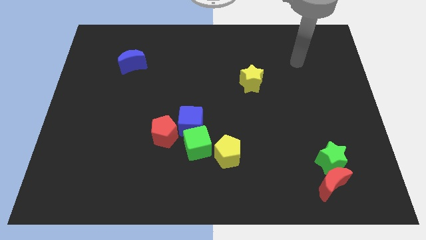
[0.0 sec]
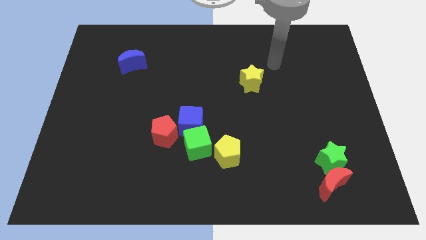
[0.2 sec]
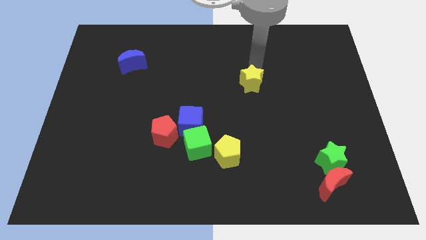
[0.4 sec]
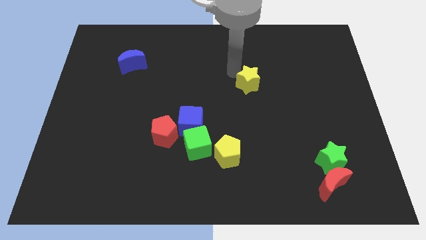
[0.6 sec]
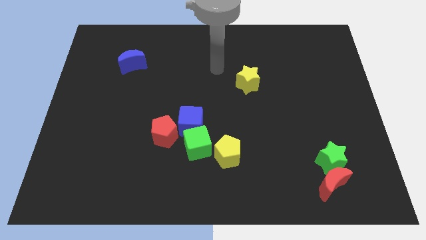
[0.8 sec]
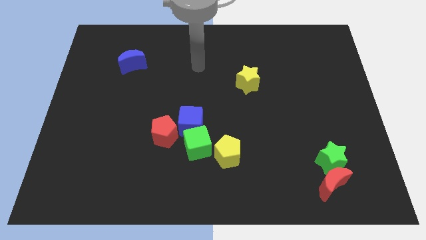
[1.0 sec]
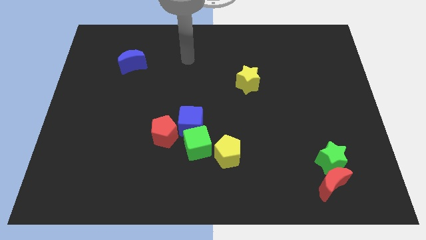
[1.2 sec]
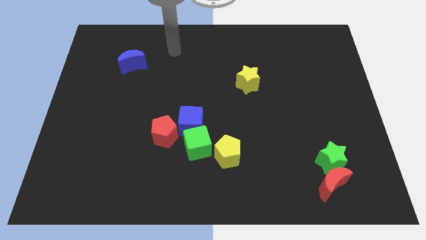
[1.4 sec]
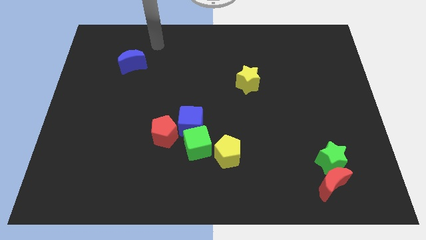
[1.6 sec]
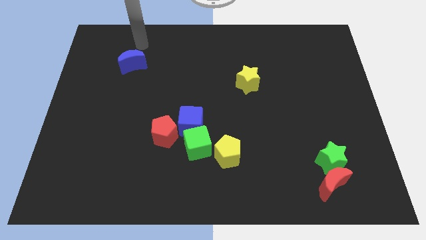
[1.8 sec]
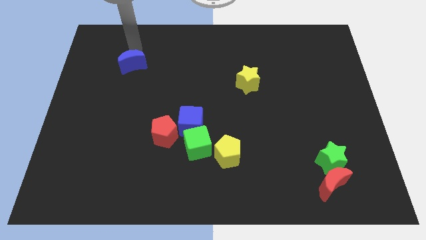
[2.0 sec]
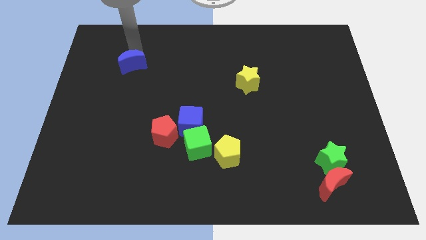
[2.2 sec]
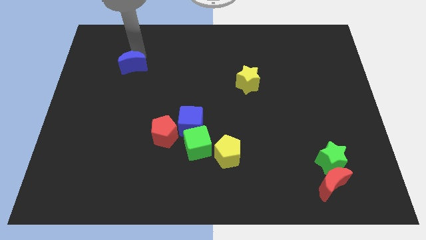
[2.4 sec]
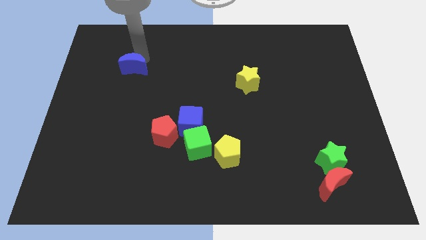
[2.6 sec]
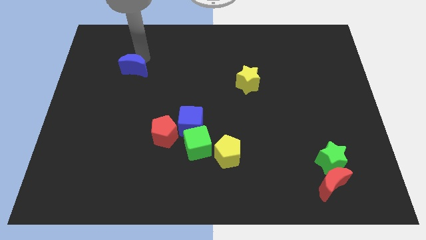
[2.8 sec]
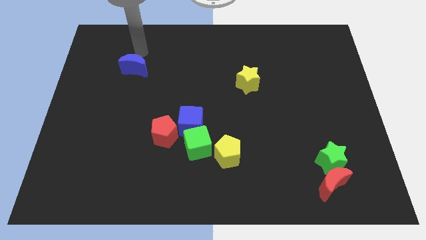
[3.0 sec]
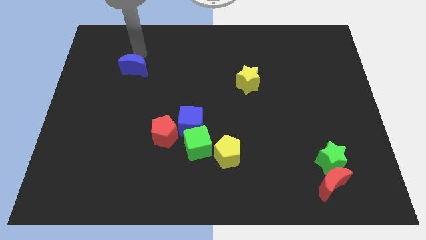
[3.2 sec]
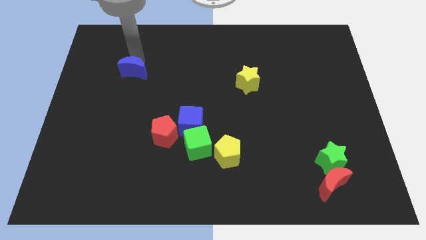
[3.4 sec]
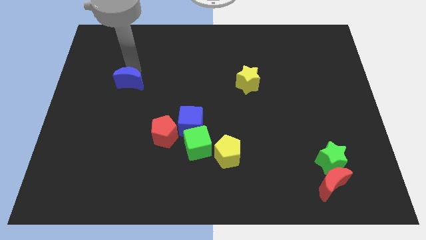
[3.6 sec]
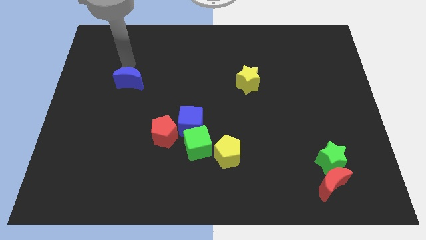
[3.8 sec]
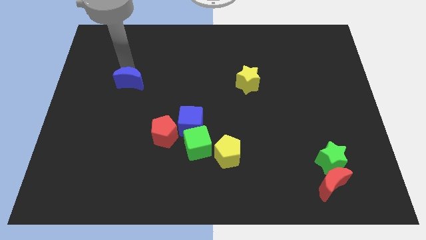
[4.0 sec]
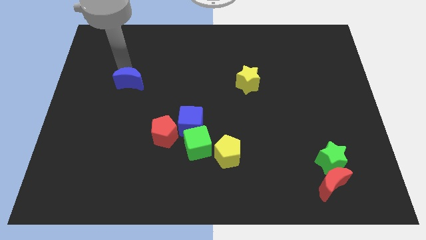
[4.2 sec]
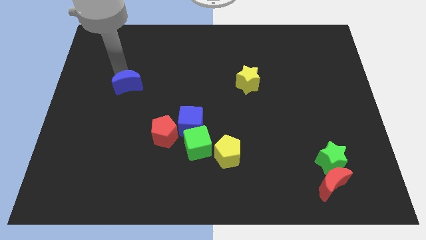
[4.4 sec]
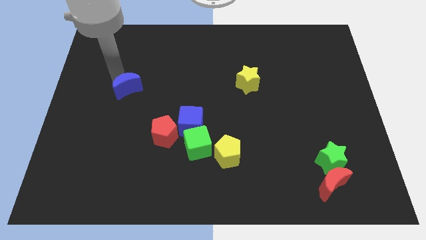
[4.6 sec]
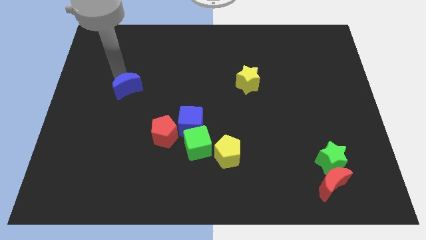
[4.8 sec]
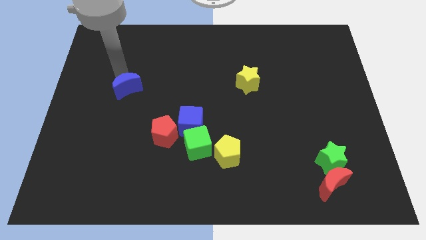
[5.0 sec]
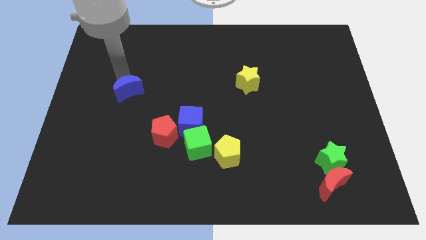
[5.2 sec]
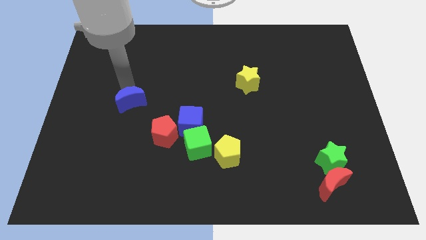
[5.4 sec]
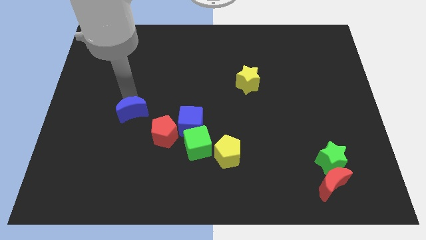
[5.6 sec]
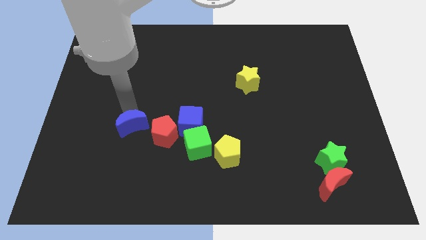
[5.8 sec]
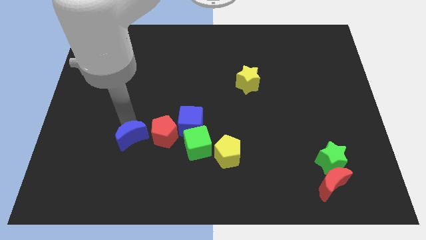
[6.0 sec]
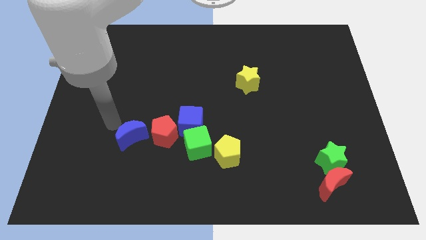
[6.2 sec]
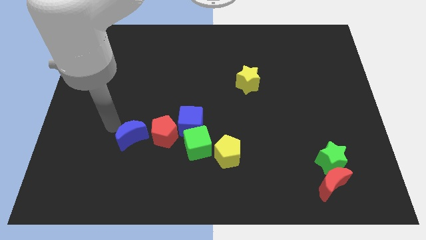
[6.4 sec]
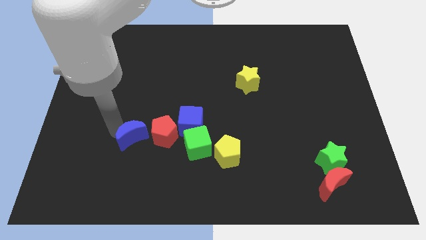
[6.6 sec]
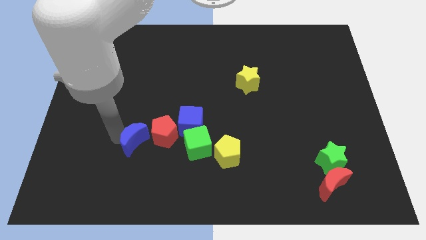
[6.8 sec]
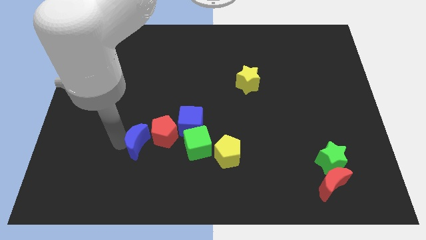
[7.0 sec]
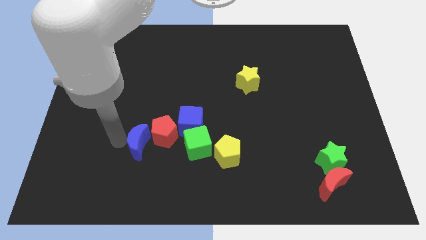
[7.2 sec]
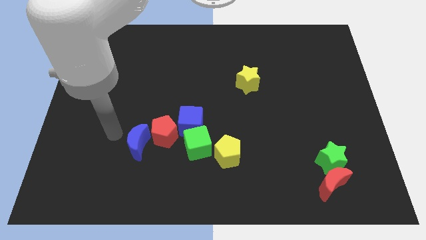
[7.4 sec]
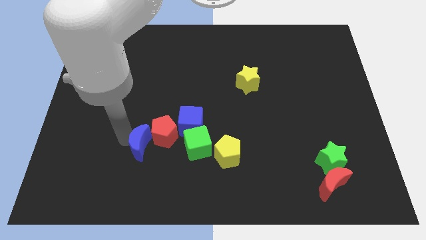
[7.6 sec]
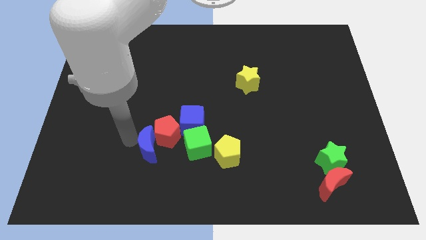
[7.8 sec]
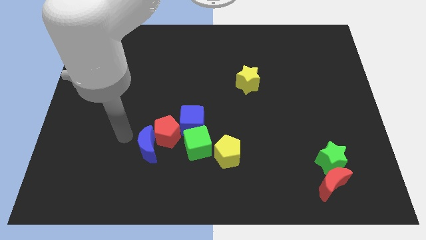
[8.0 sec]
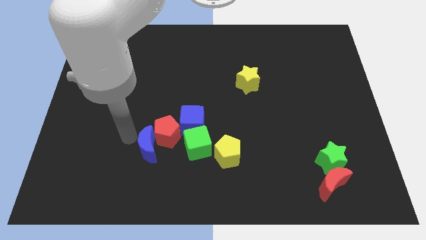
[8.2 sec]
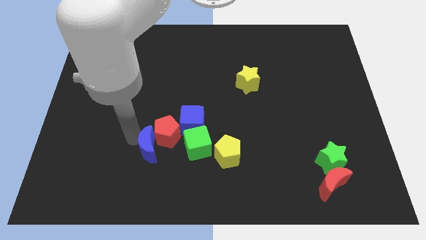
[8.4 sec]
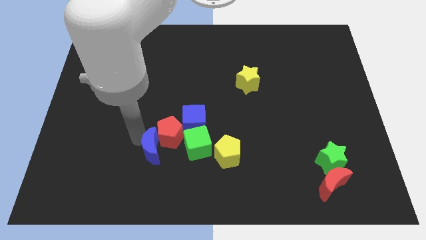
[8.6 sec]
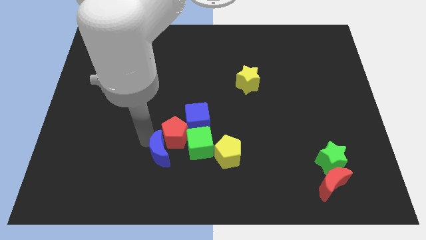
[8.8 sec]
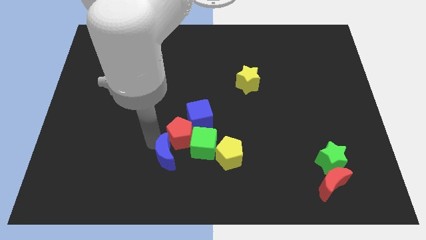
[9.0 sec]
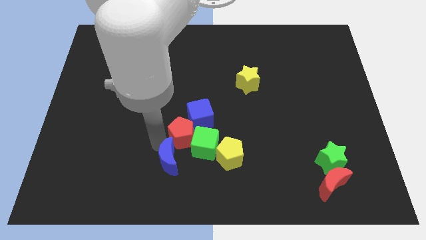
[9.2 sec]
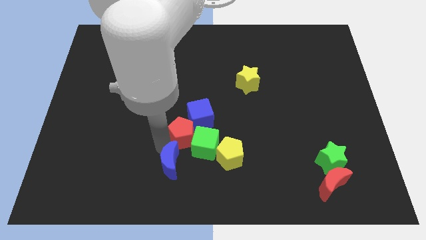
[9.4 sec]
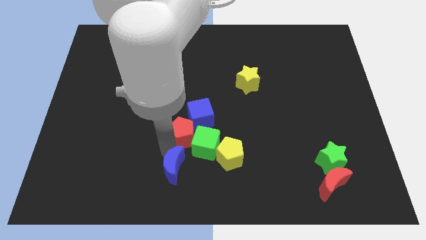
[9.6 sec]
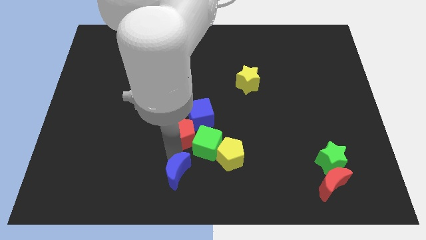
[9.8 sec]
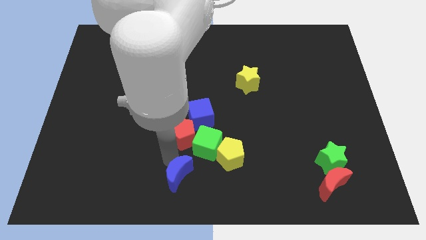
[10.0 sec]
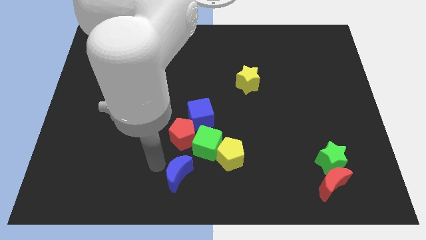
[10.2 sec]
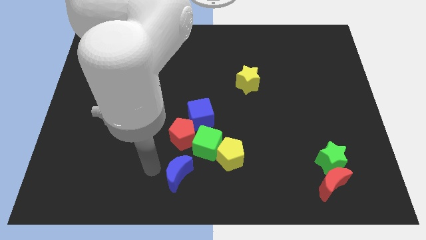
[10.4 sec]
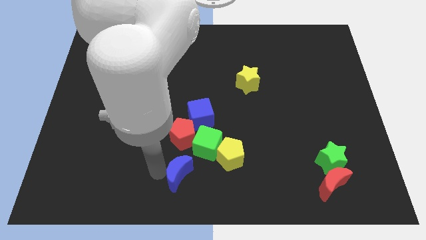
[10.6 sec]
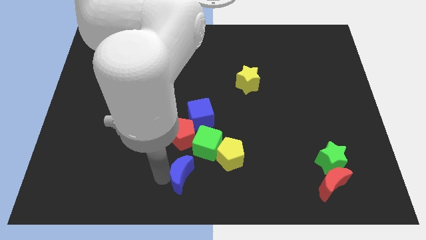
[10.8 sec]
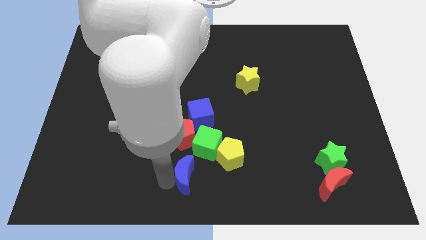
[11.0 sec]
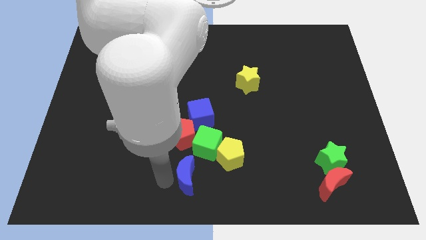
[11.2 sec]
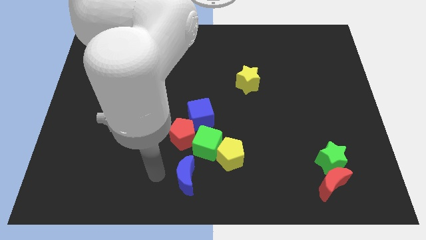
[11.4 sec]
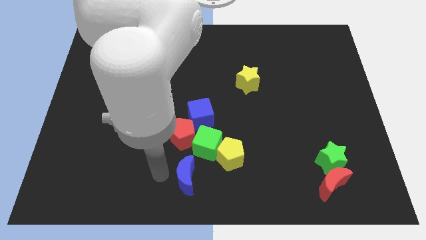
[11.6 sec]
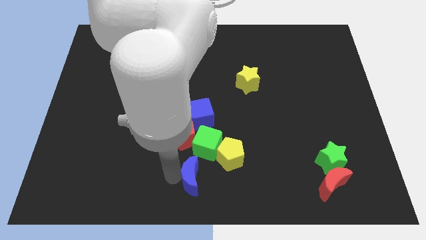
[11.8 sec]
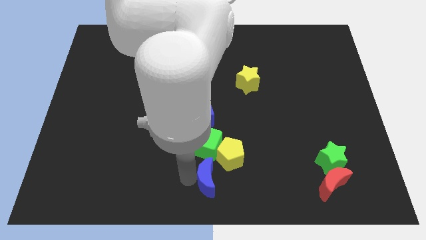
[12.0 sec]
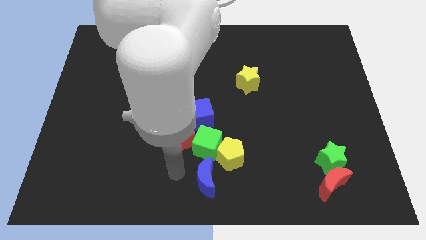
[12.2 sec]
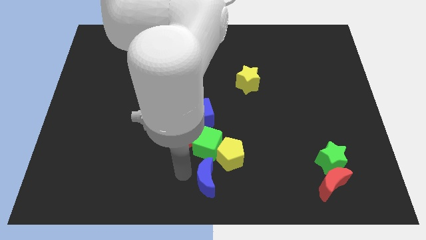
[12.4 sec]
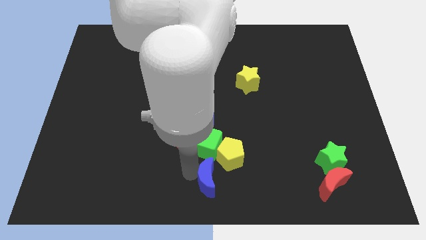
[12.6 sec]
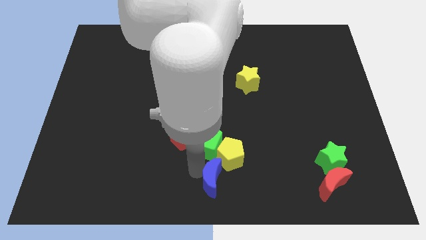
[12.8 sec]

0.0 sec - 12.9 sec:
push the blue moon to the bottom right of the green cube

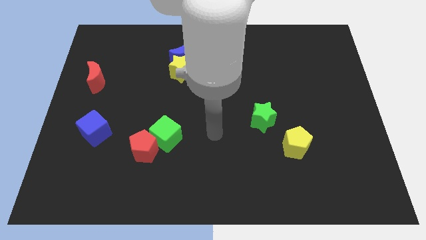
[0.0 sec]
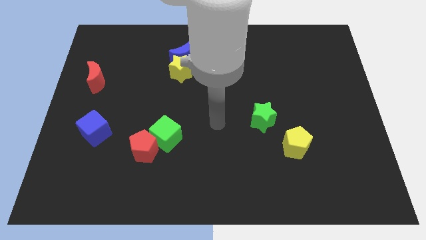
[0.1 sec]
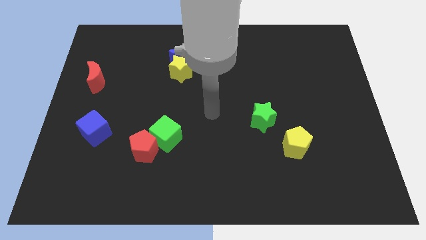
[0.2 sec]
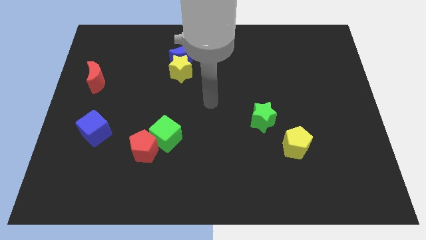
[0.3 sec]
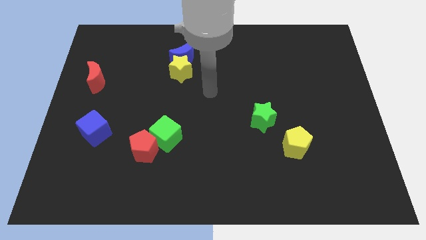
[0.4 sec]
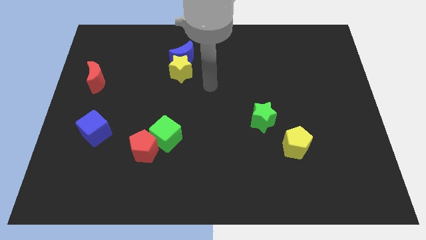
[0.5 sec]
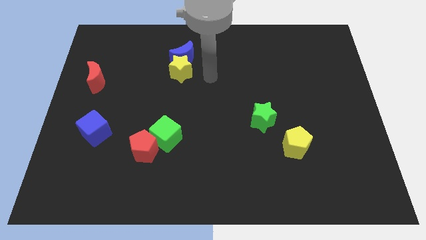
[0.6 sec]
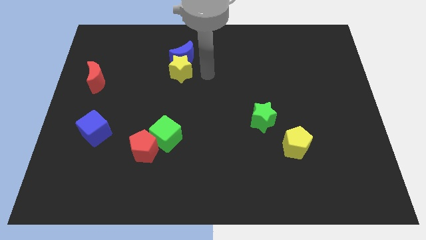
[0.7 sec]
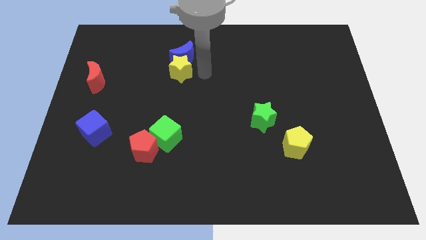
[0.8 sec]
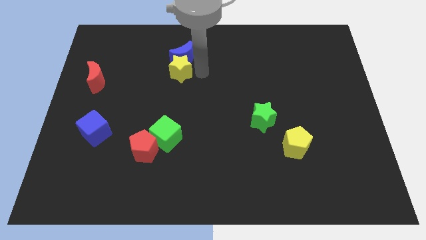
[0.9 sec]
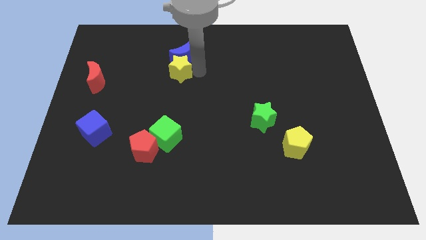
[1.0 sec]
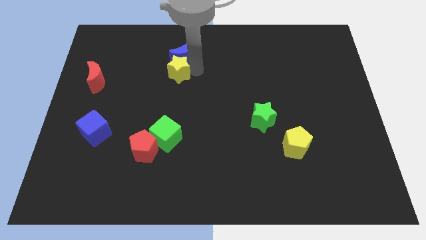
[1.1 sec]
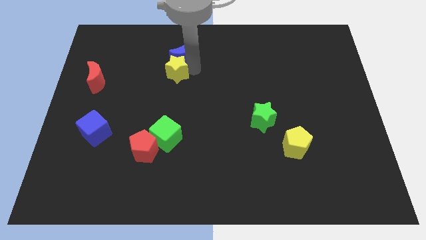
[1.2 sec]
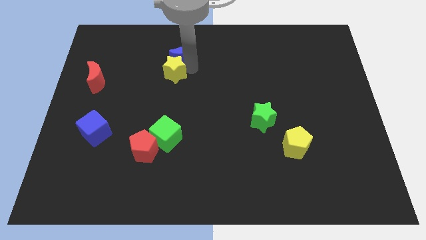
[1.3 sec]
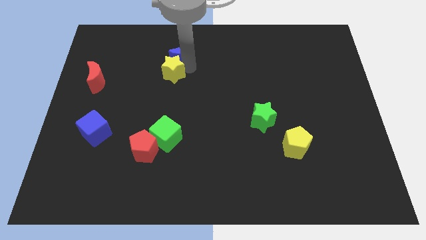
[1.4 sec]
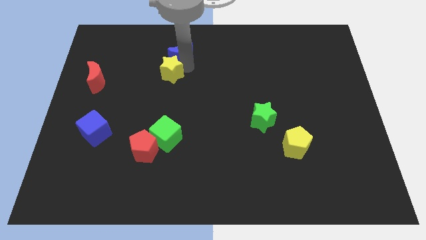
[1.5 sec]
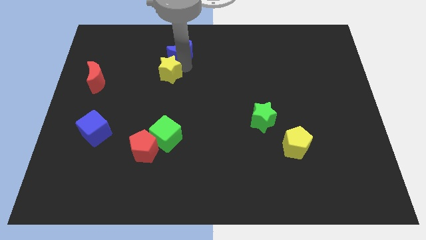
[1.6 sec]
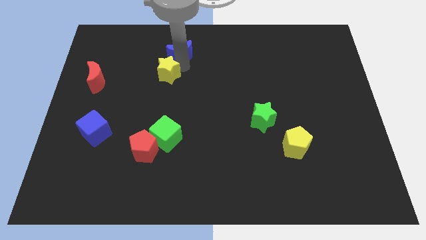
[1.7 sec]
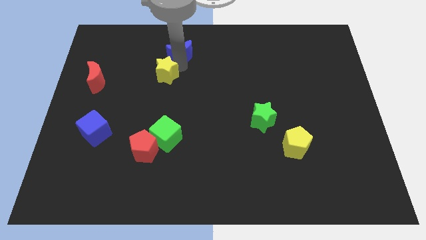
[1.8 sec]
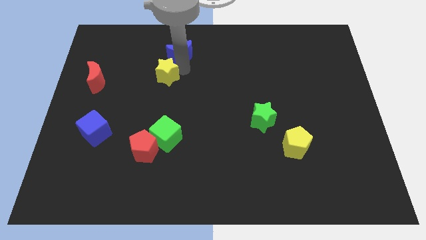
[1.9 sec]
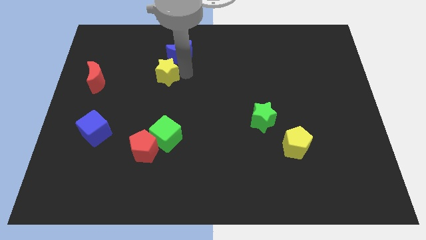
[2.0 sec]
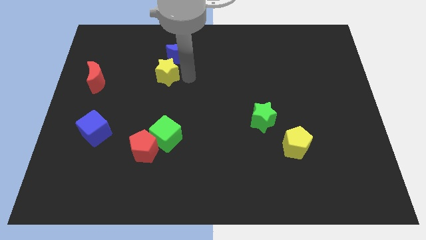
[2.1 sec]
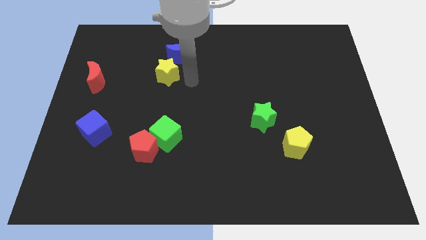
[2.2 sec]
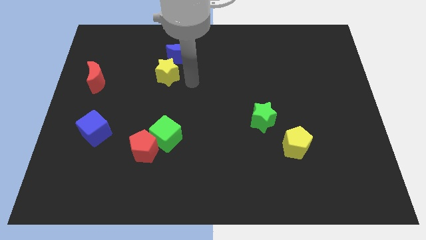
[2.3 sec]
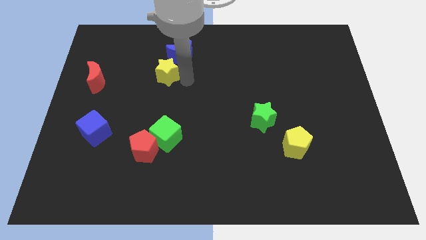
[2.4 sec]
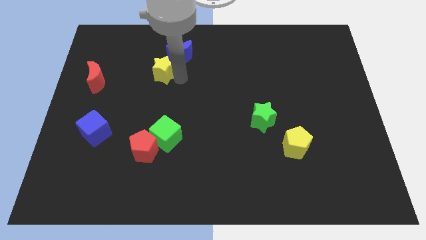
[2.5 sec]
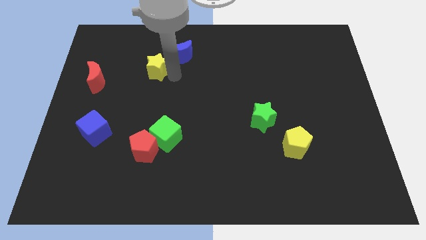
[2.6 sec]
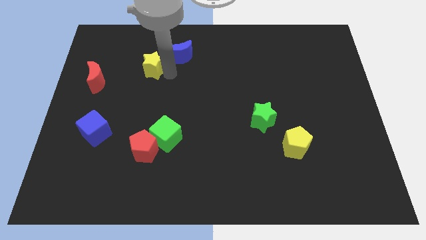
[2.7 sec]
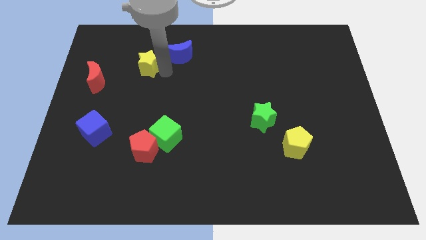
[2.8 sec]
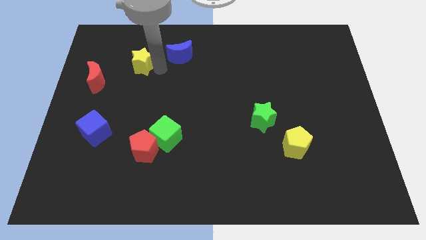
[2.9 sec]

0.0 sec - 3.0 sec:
push the yellow star to the top right of the red moon
